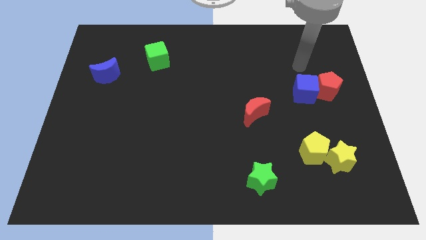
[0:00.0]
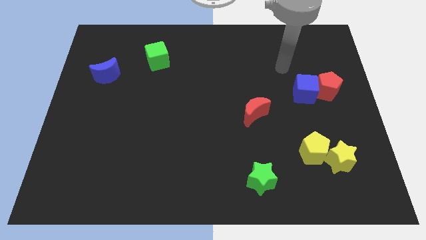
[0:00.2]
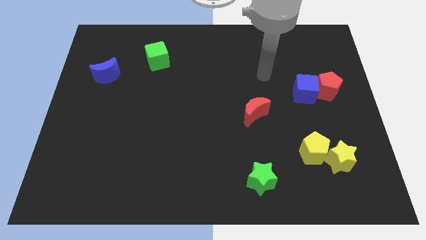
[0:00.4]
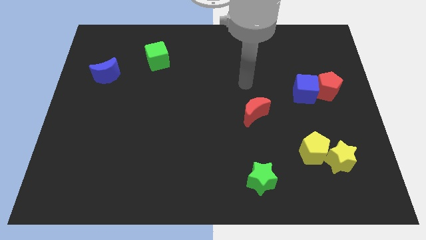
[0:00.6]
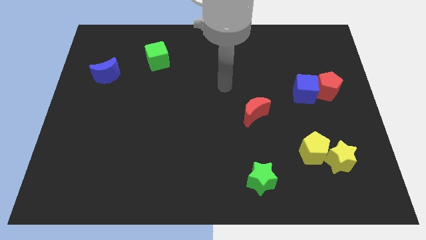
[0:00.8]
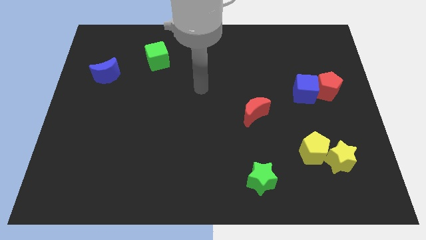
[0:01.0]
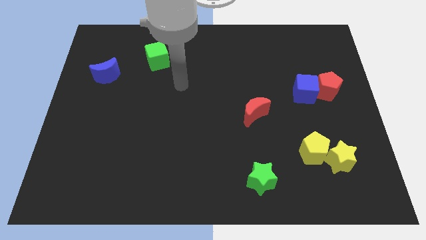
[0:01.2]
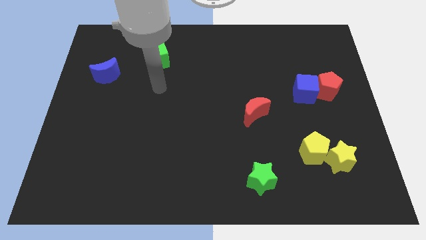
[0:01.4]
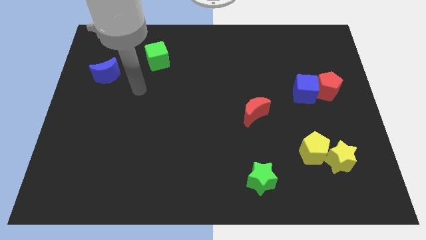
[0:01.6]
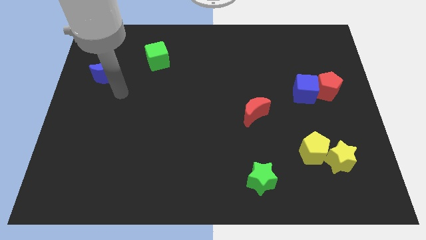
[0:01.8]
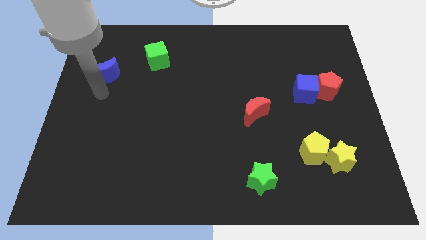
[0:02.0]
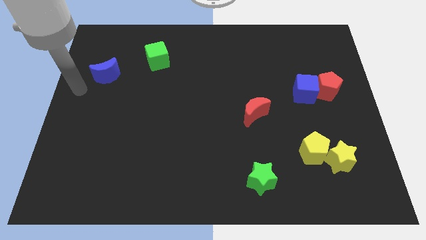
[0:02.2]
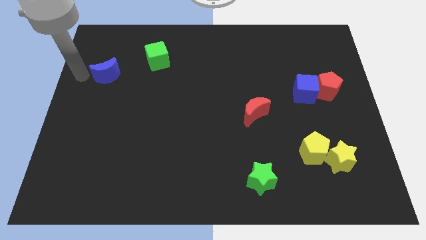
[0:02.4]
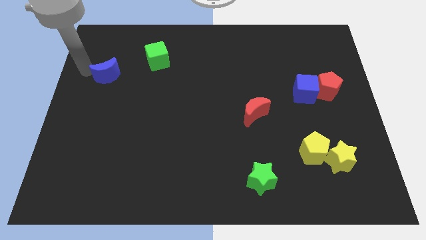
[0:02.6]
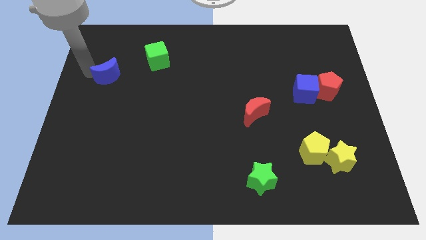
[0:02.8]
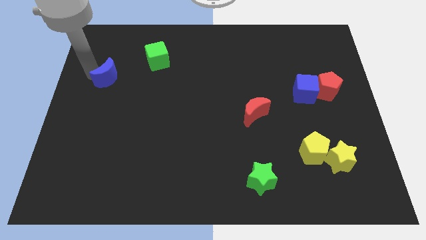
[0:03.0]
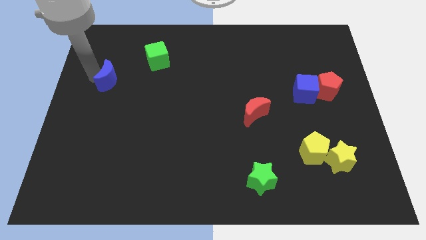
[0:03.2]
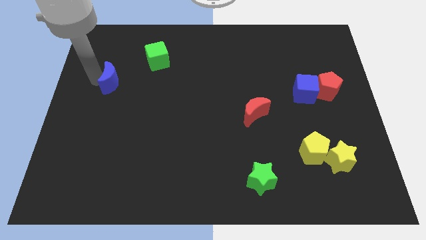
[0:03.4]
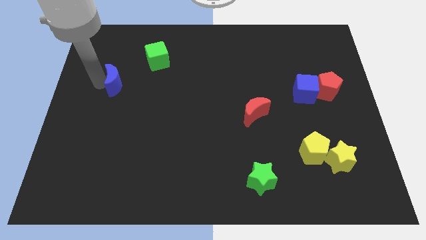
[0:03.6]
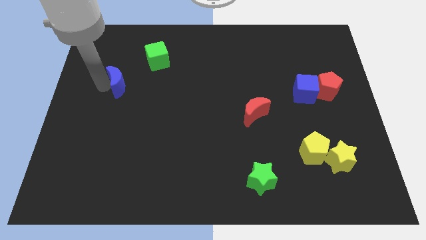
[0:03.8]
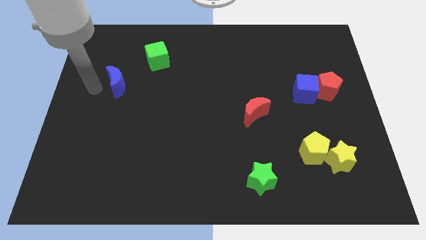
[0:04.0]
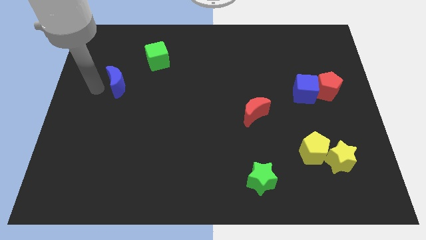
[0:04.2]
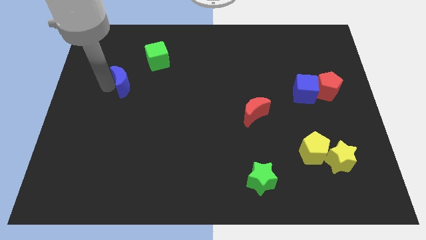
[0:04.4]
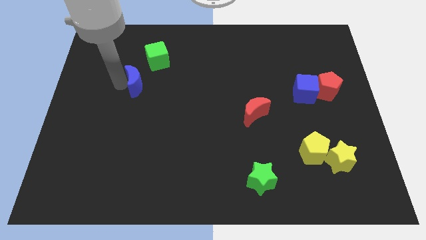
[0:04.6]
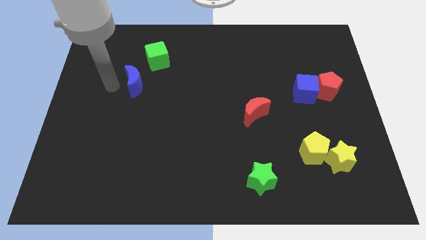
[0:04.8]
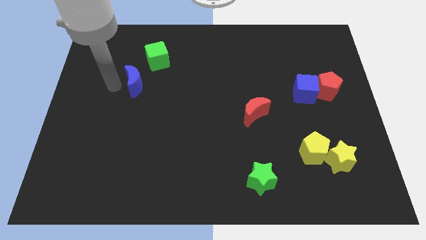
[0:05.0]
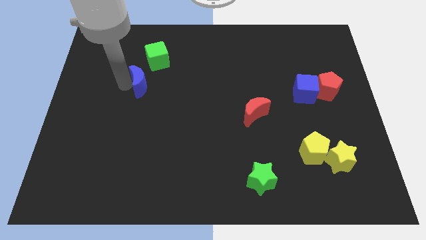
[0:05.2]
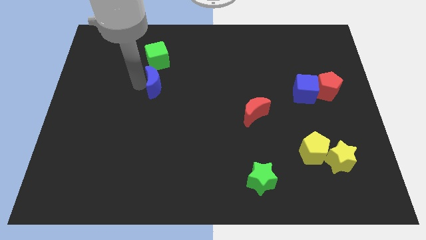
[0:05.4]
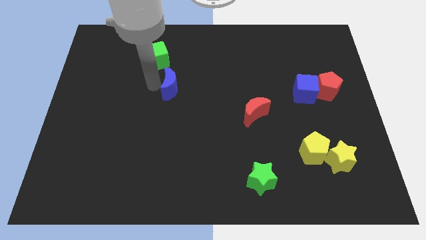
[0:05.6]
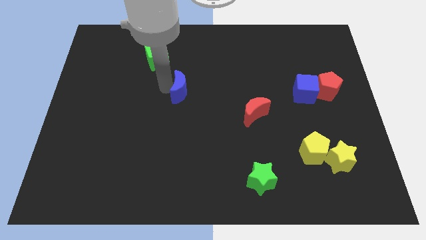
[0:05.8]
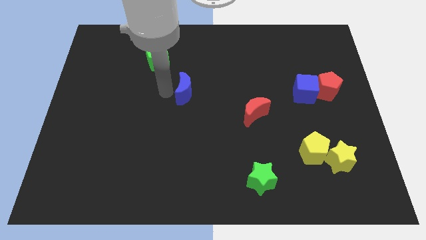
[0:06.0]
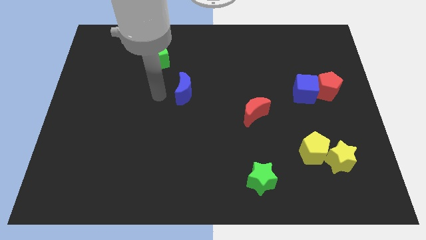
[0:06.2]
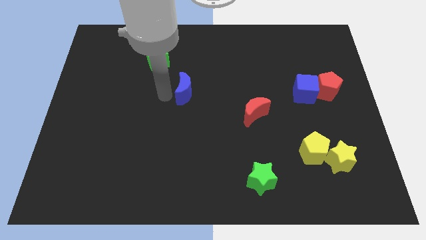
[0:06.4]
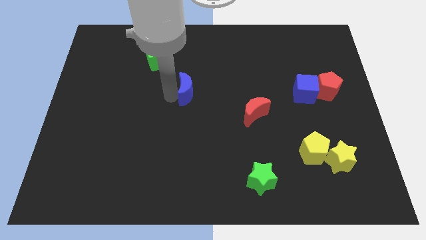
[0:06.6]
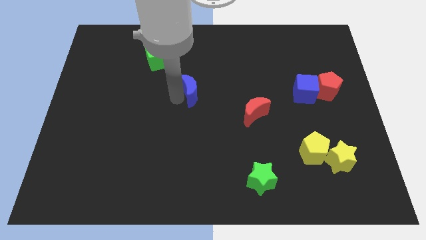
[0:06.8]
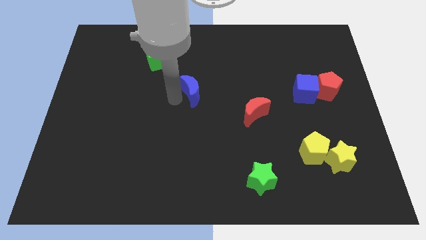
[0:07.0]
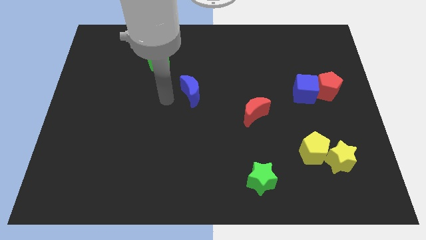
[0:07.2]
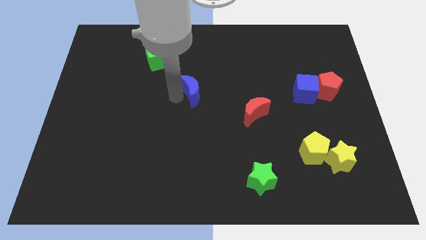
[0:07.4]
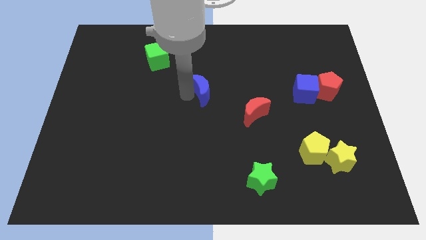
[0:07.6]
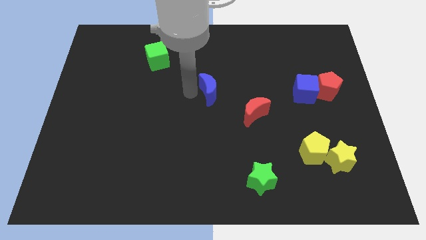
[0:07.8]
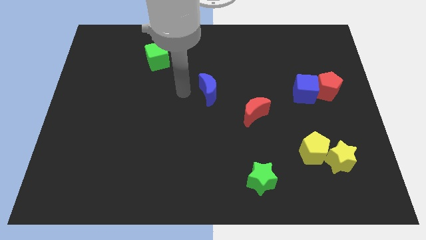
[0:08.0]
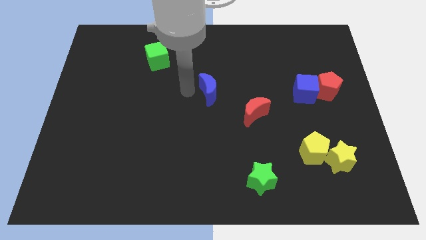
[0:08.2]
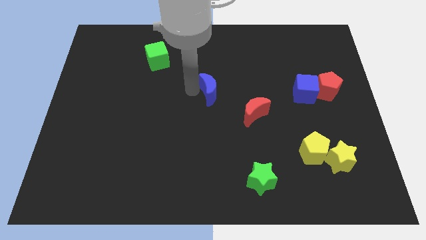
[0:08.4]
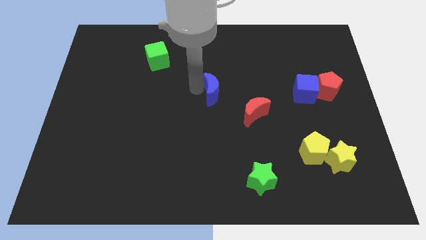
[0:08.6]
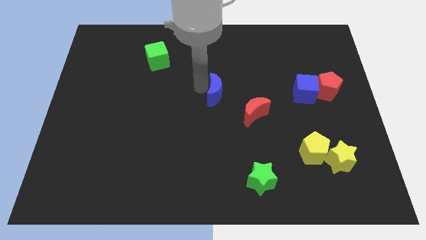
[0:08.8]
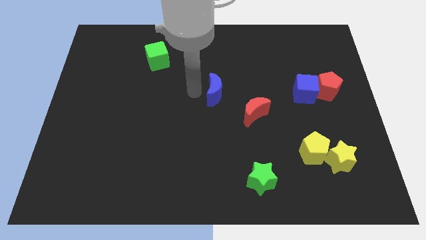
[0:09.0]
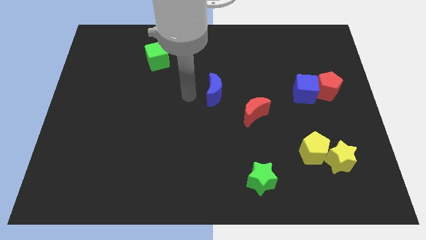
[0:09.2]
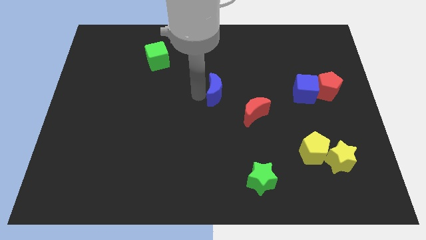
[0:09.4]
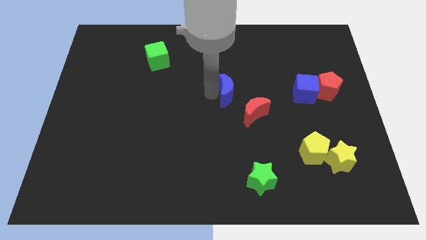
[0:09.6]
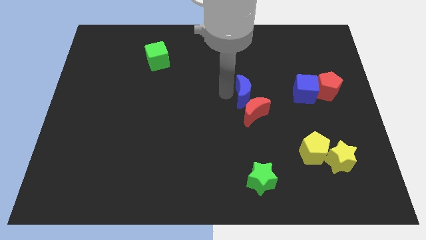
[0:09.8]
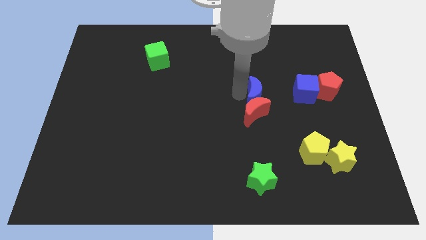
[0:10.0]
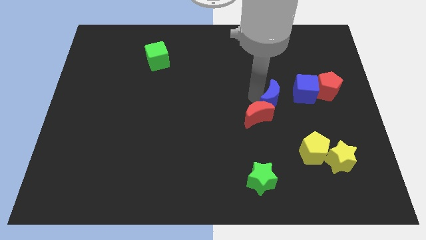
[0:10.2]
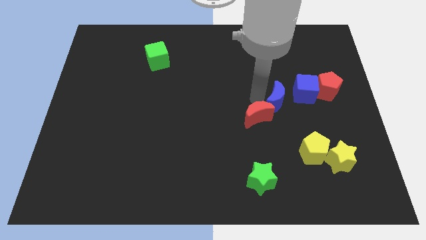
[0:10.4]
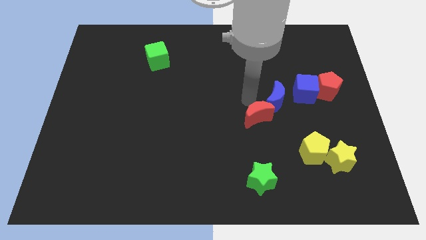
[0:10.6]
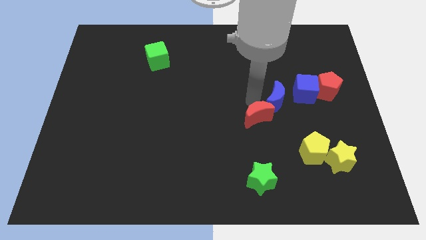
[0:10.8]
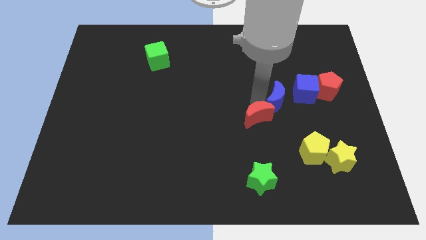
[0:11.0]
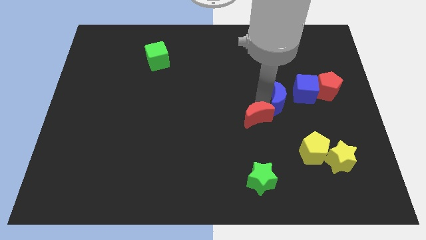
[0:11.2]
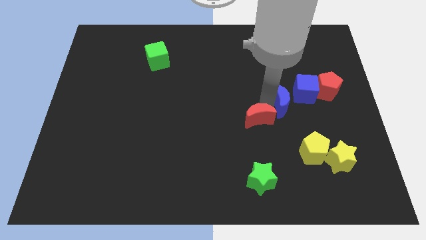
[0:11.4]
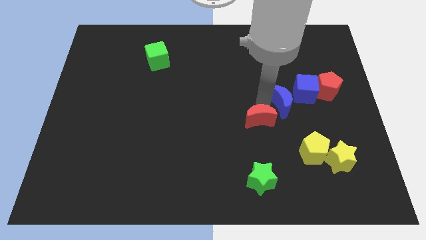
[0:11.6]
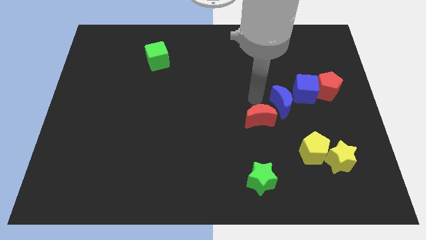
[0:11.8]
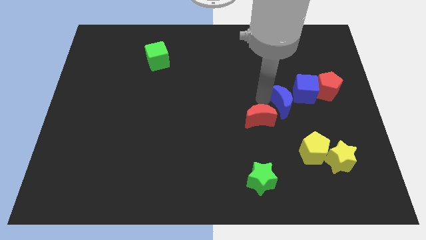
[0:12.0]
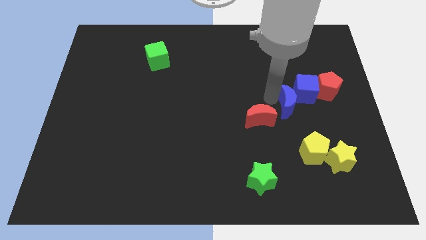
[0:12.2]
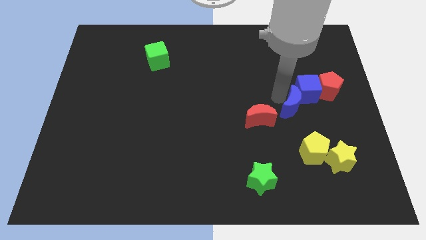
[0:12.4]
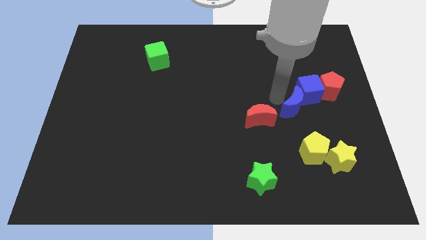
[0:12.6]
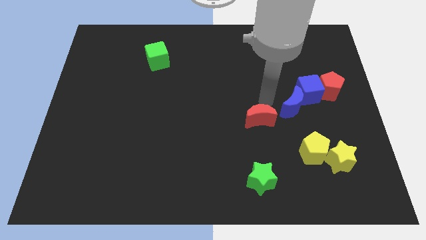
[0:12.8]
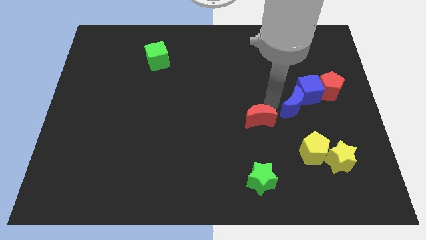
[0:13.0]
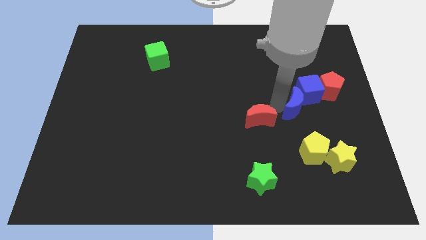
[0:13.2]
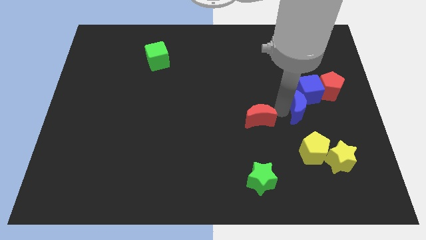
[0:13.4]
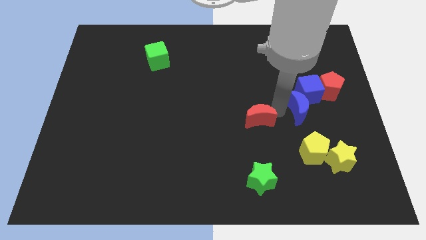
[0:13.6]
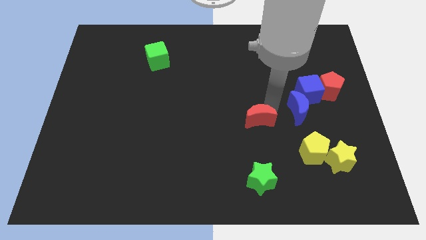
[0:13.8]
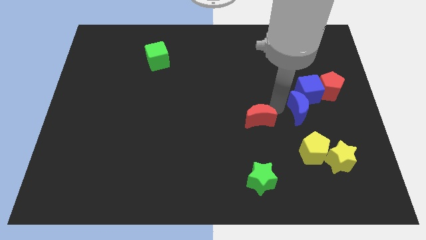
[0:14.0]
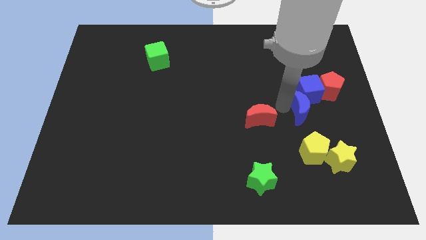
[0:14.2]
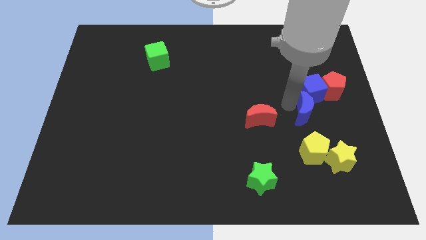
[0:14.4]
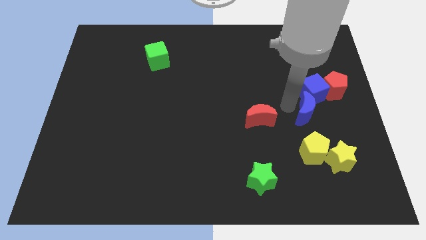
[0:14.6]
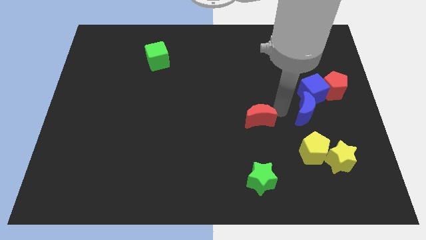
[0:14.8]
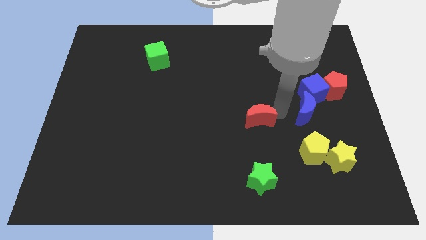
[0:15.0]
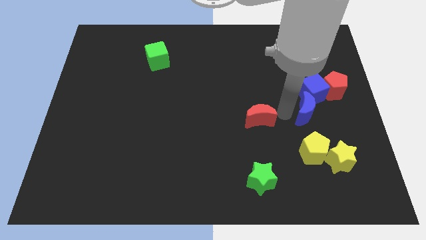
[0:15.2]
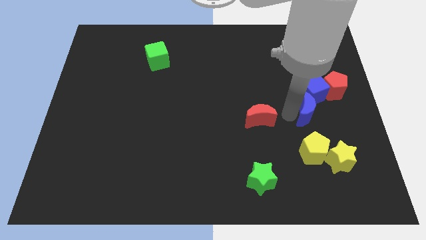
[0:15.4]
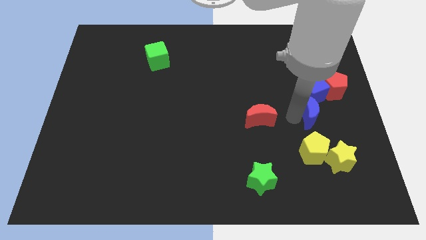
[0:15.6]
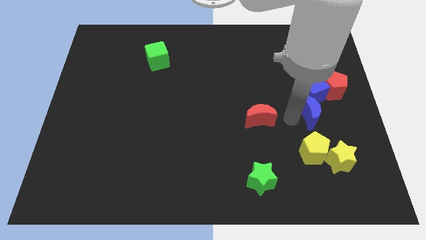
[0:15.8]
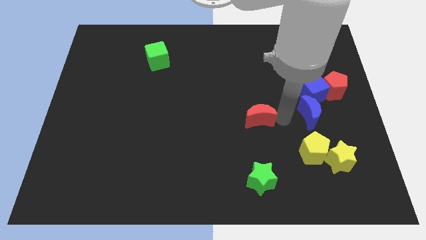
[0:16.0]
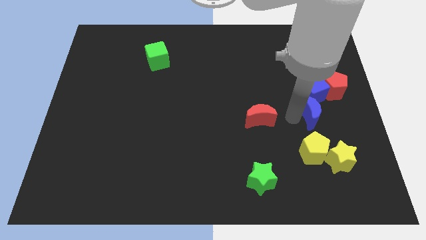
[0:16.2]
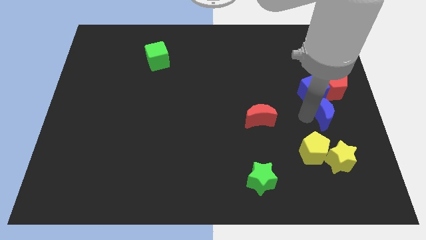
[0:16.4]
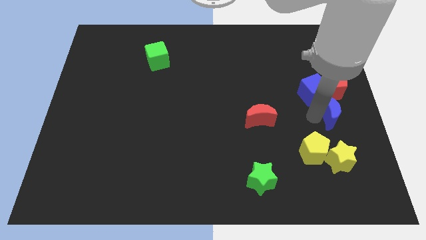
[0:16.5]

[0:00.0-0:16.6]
move the blue moon to the right side
